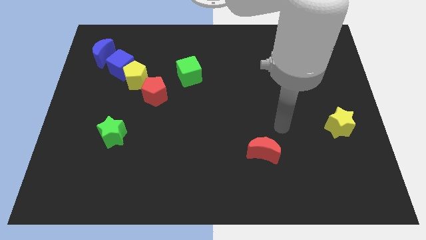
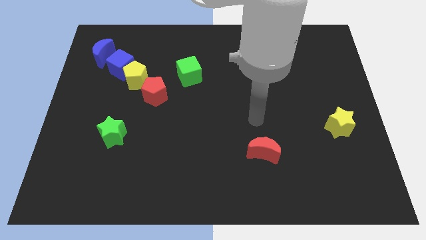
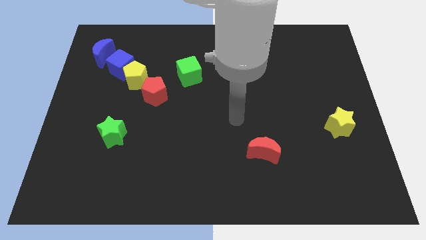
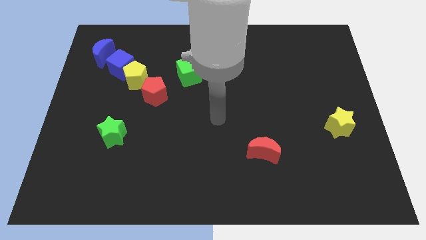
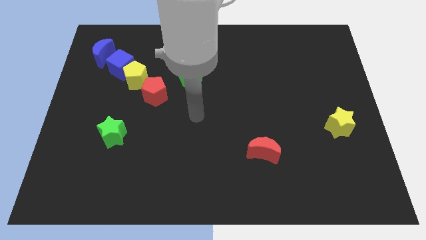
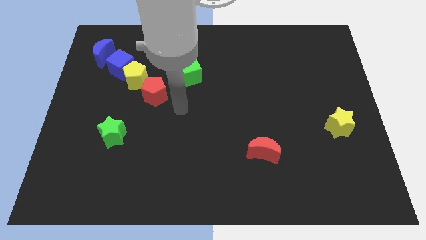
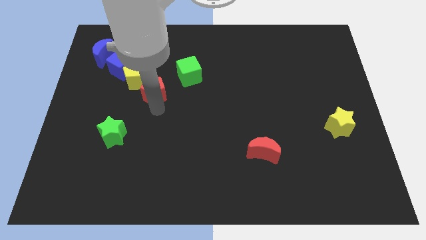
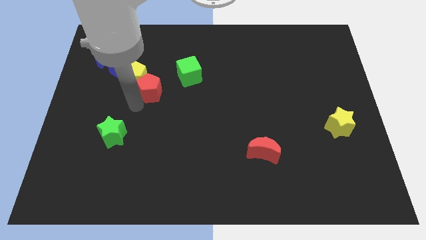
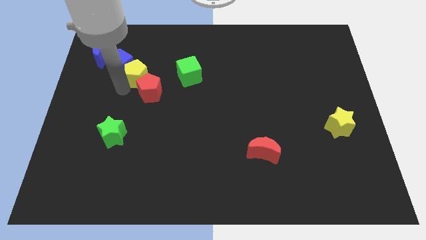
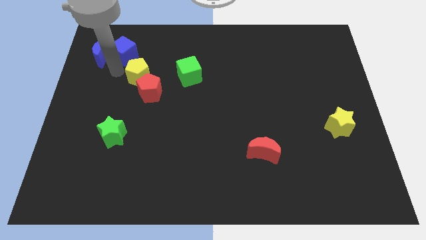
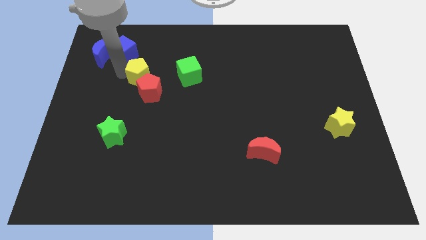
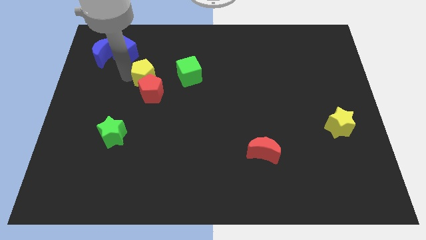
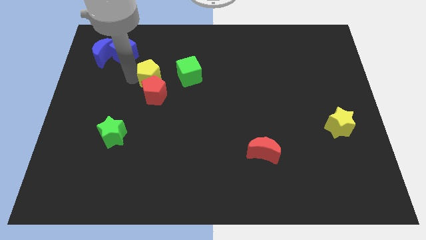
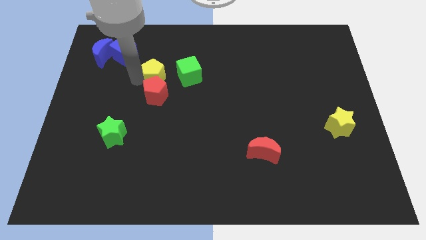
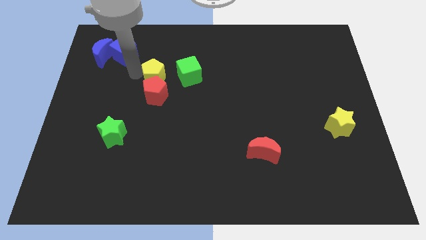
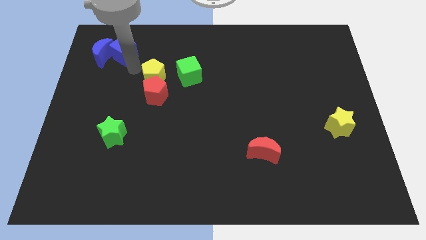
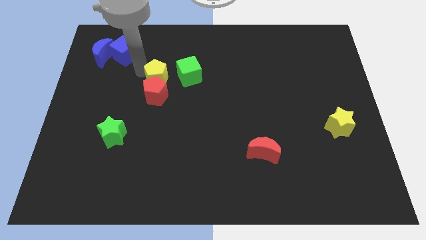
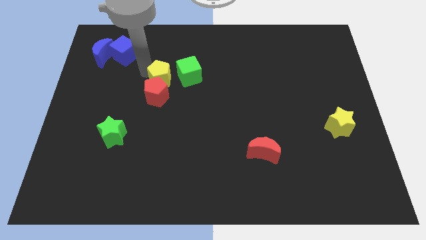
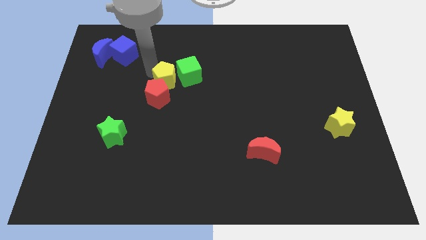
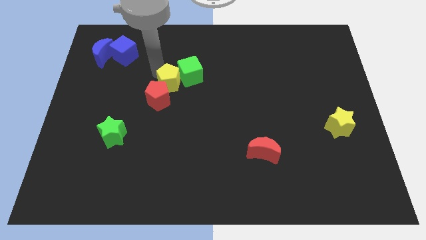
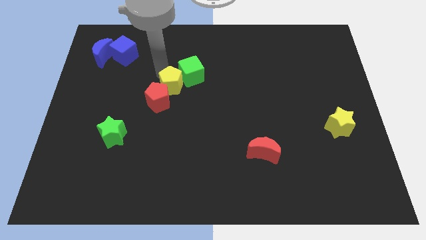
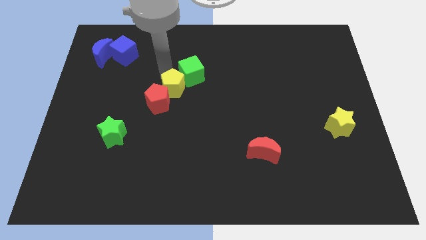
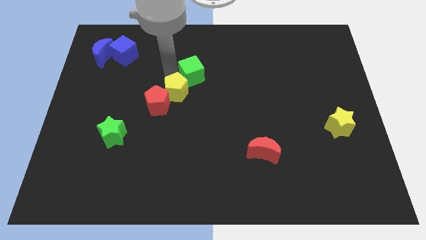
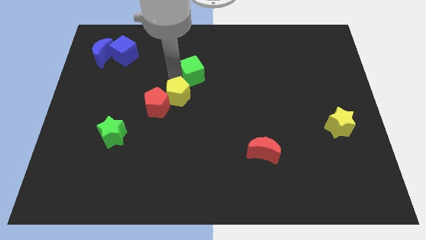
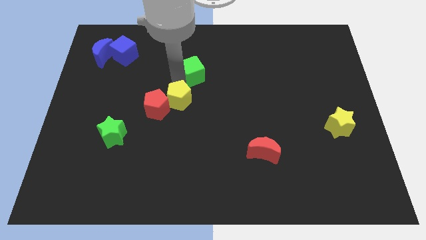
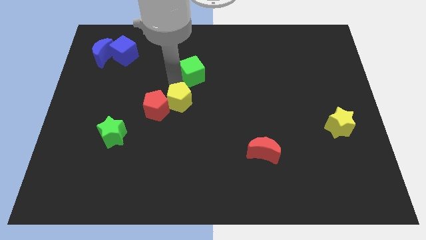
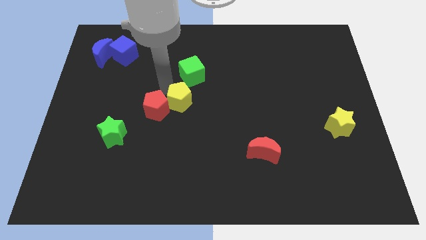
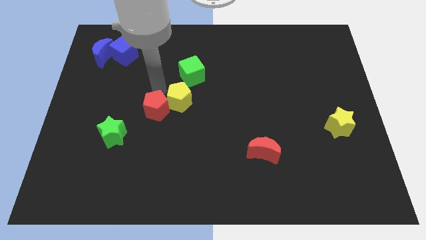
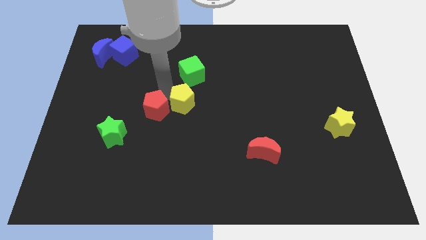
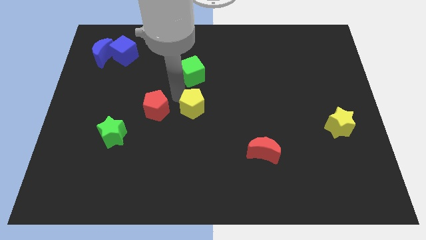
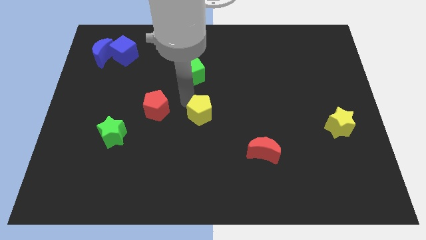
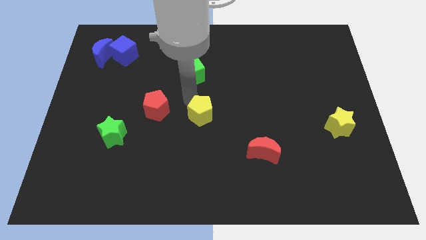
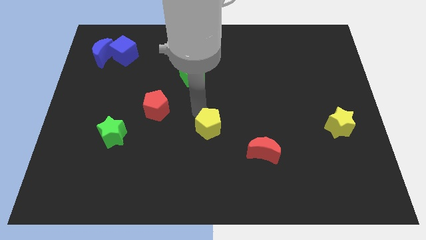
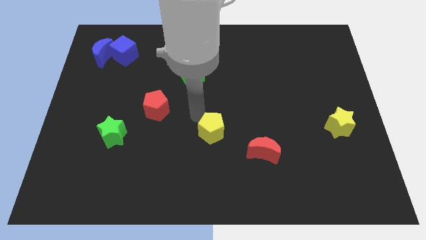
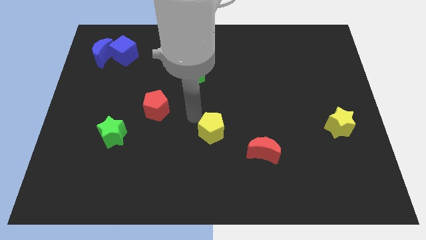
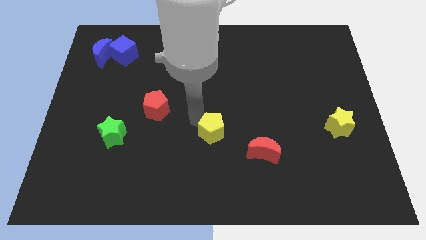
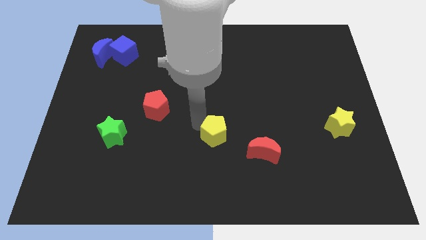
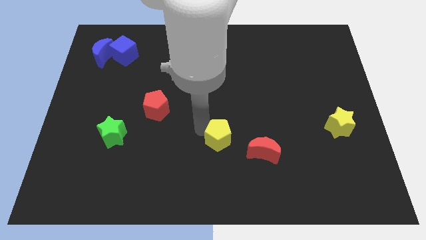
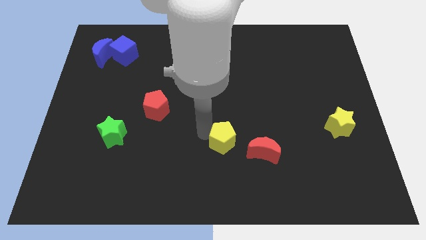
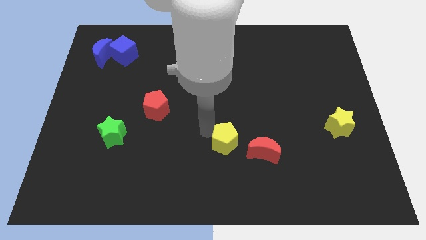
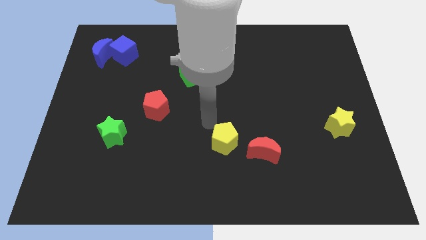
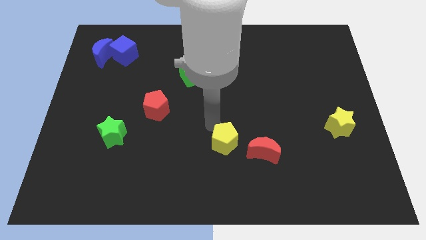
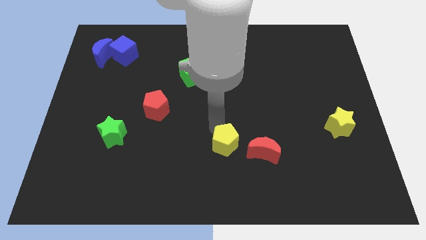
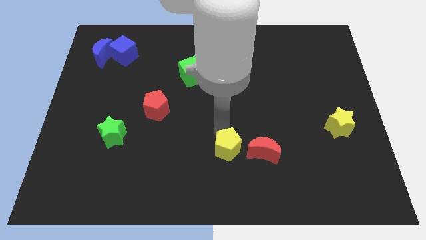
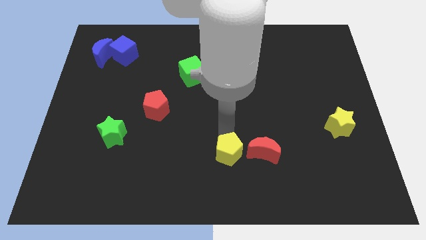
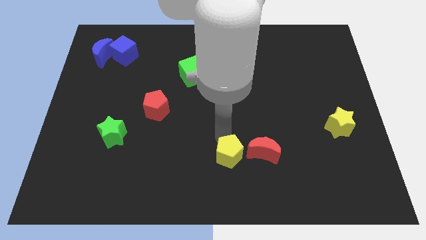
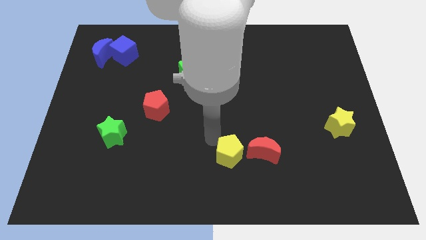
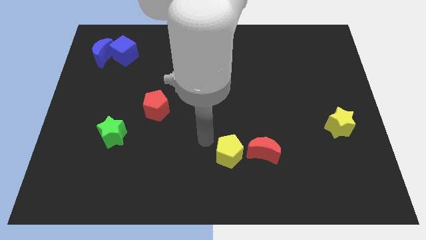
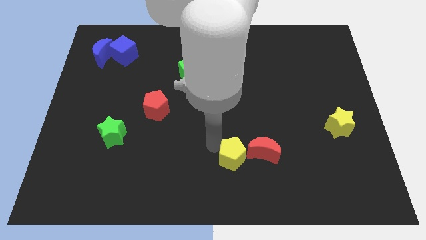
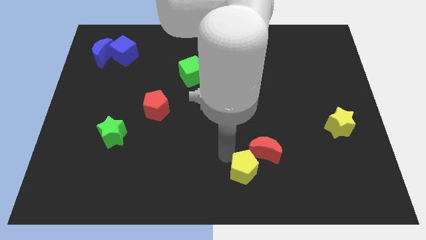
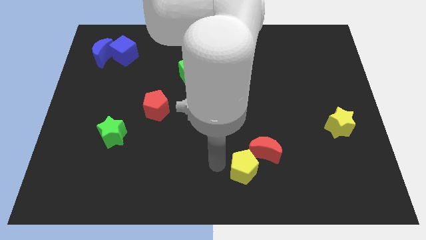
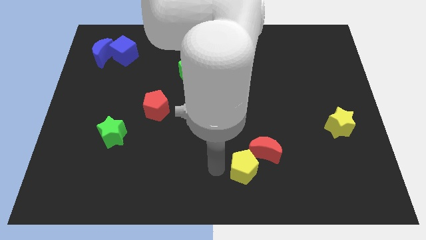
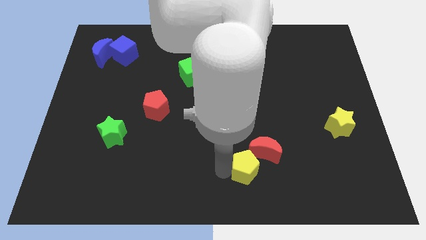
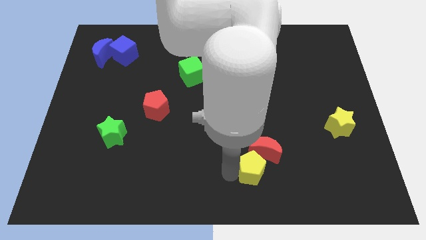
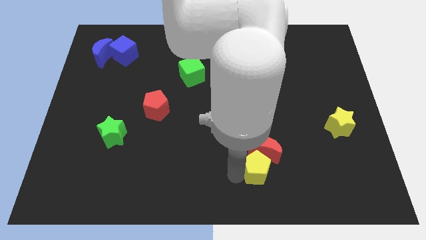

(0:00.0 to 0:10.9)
put the yellow pentagon to the bottom right of the red moon

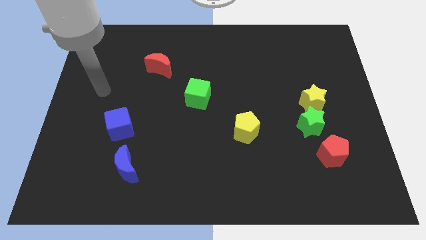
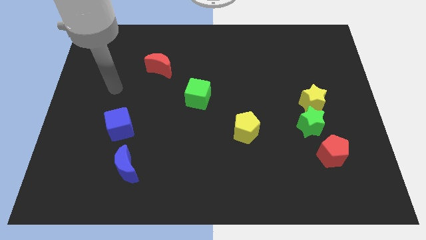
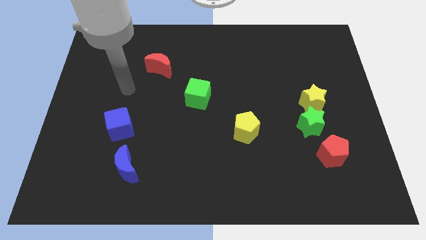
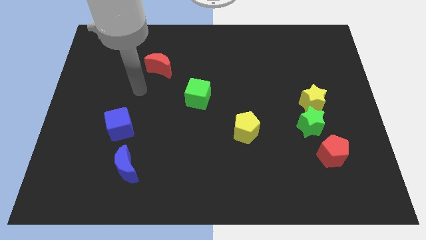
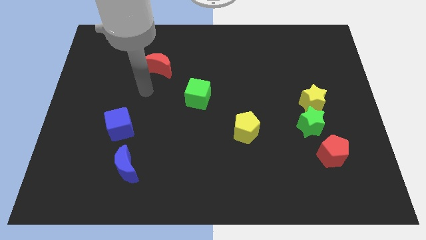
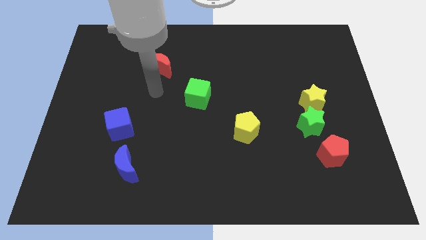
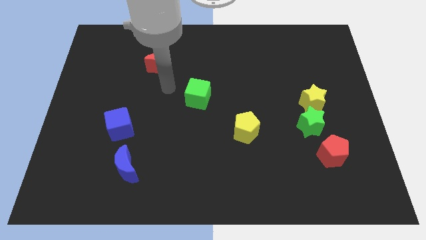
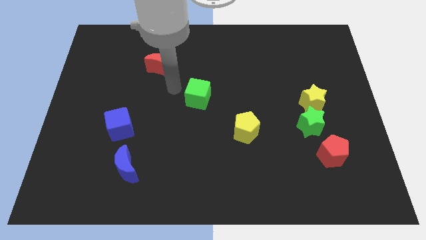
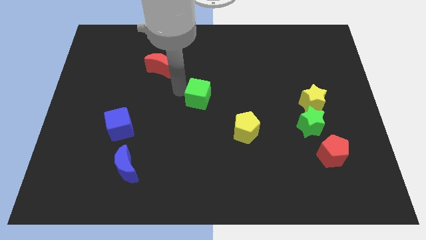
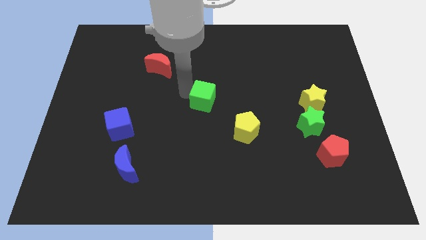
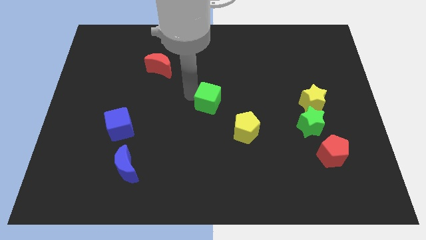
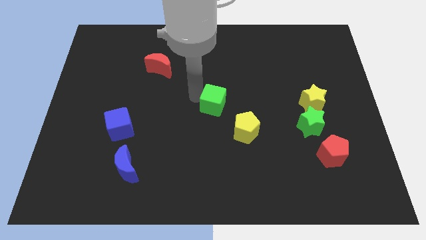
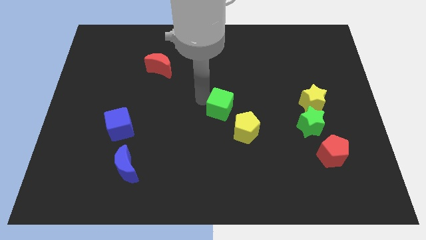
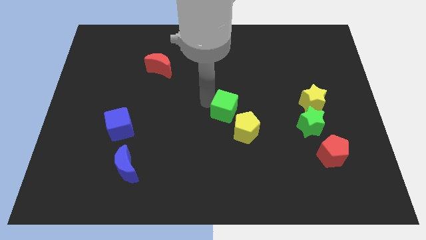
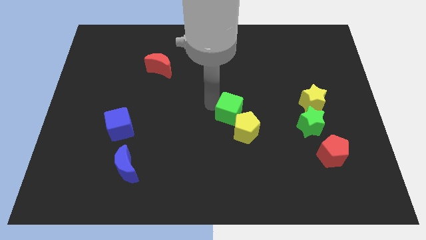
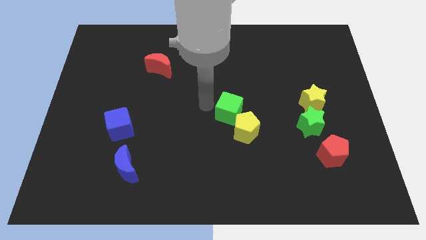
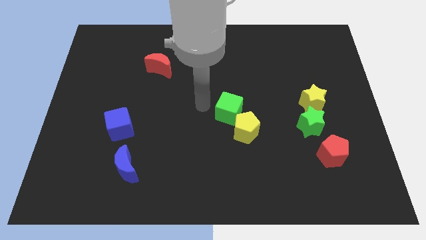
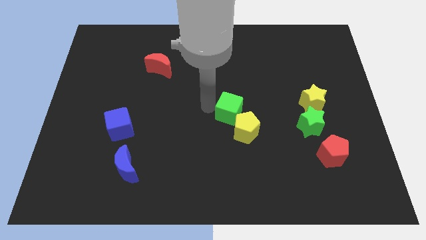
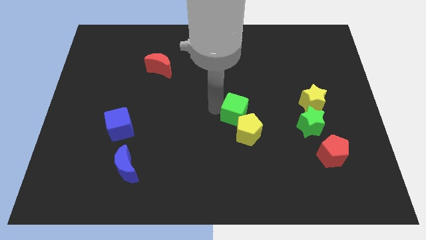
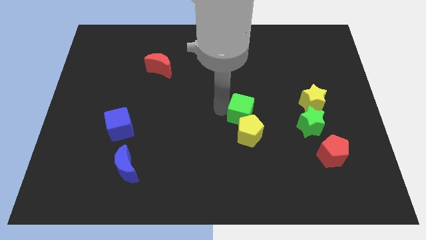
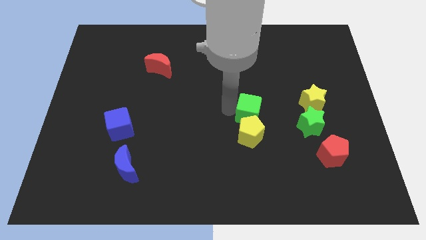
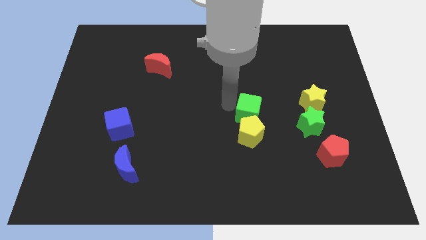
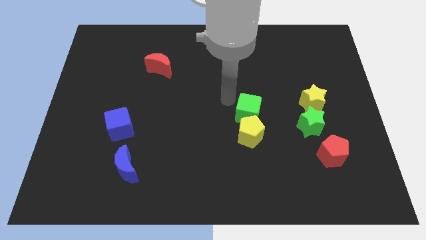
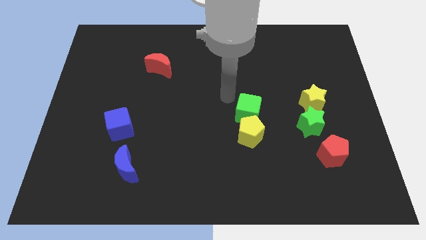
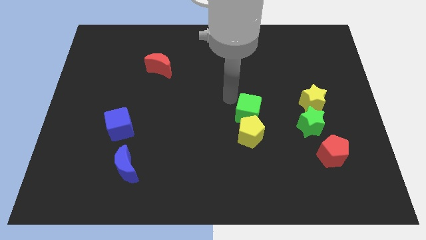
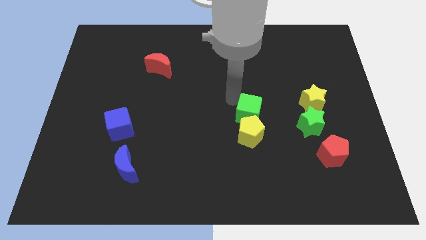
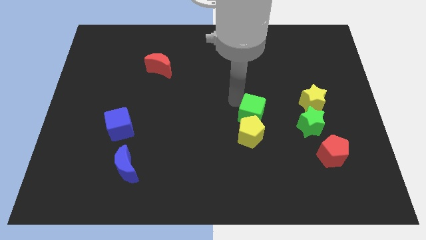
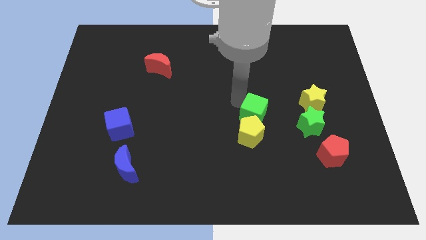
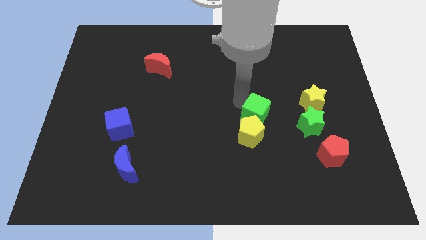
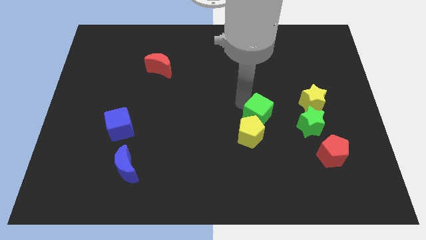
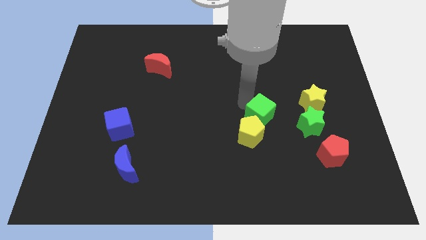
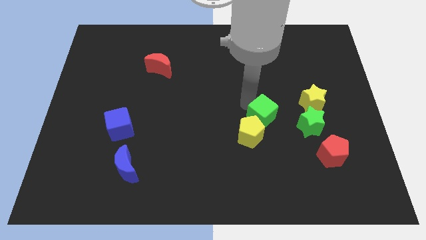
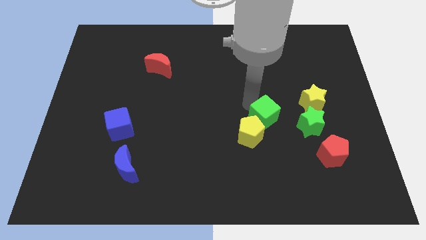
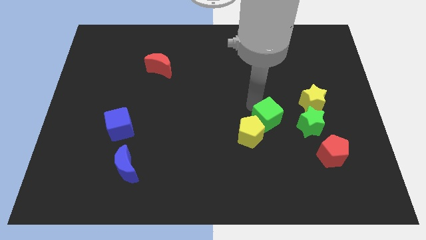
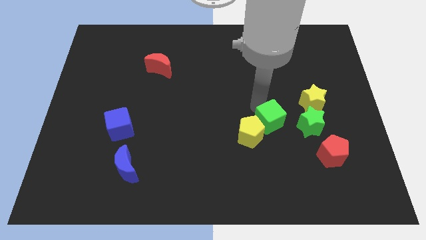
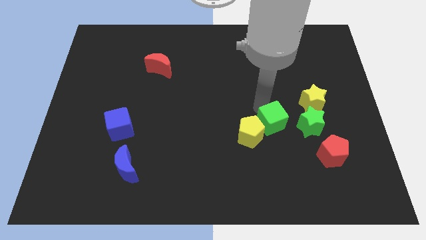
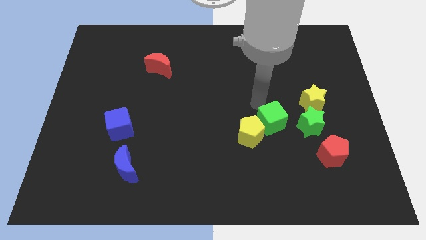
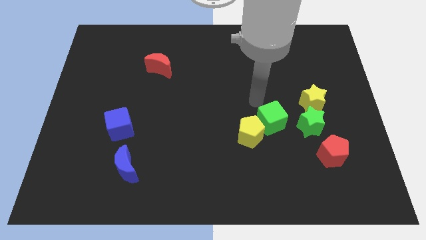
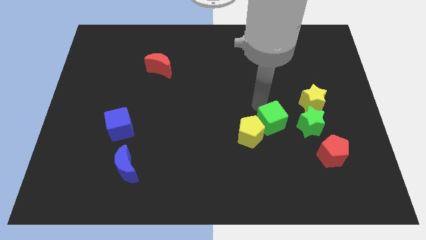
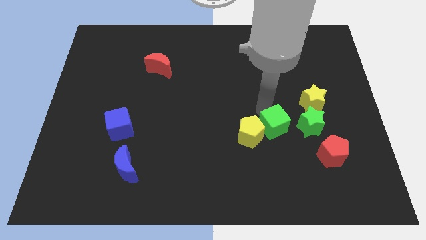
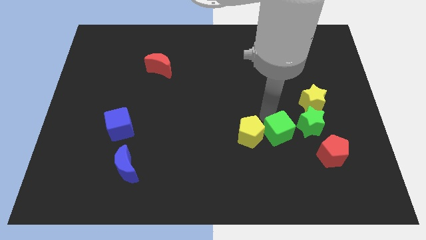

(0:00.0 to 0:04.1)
put the green cube diagonally down and to the left of the green star
